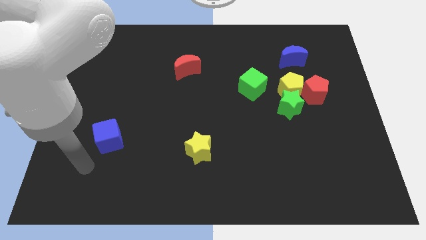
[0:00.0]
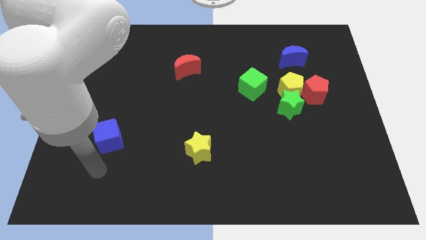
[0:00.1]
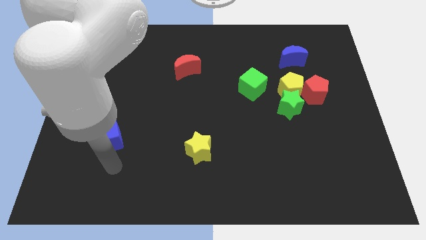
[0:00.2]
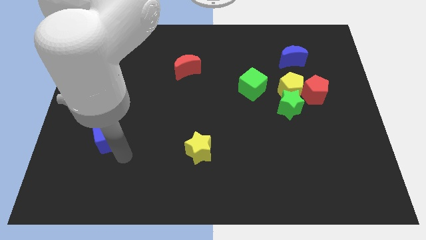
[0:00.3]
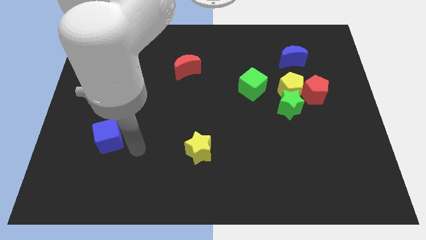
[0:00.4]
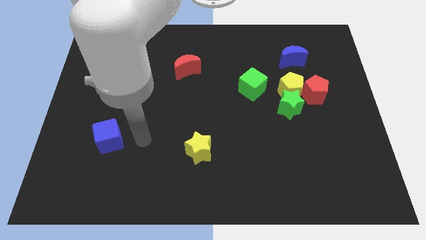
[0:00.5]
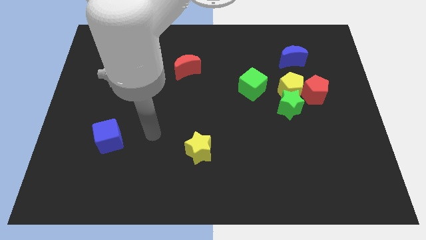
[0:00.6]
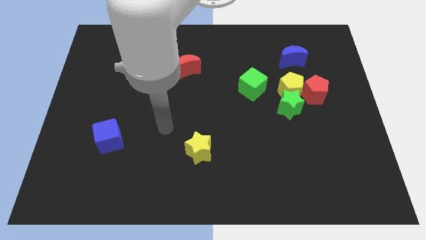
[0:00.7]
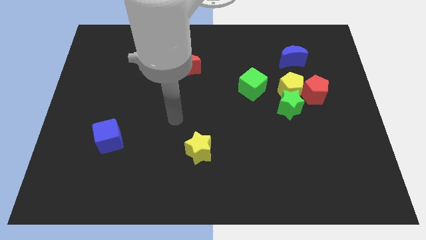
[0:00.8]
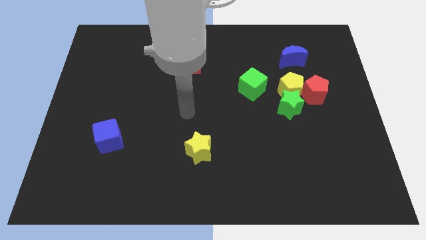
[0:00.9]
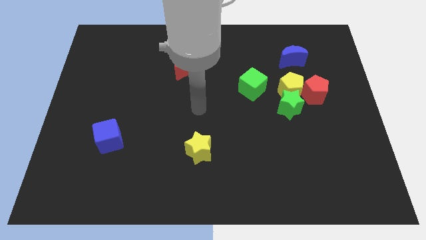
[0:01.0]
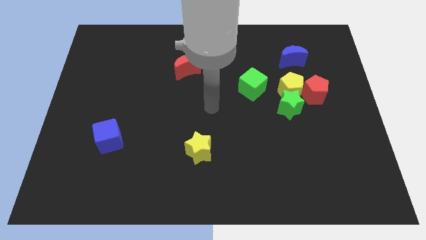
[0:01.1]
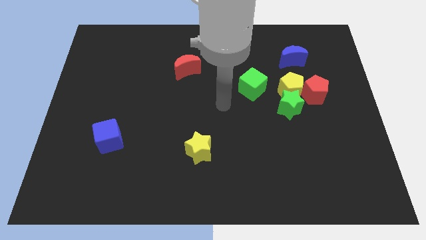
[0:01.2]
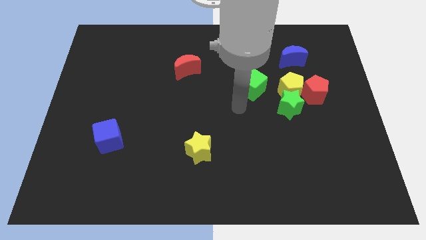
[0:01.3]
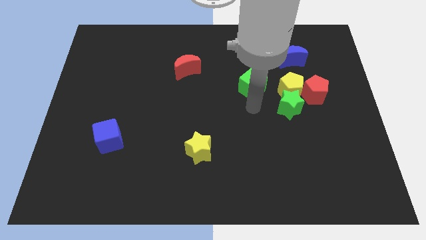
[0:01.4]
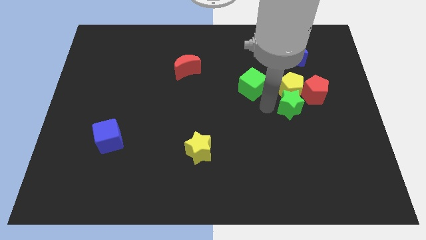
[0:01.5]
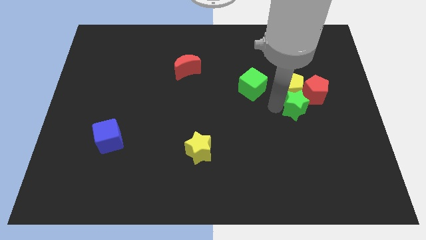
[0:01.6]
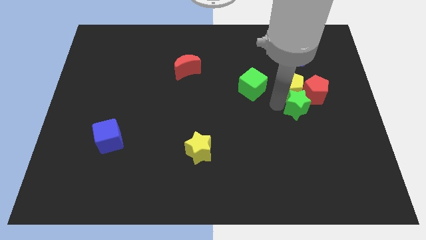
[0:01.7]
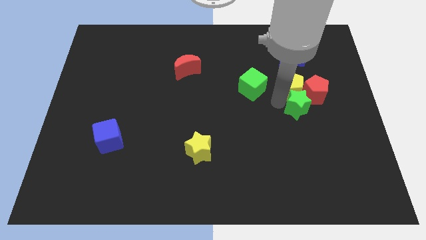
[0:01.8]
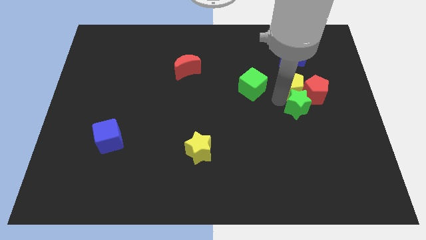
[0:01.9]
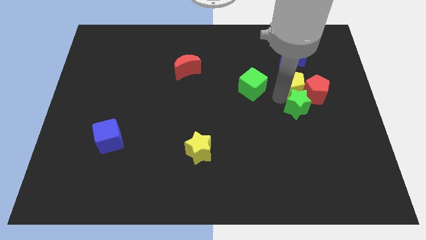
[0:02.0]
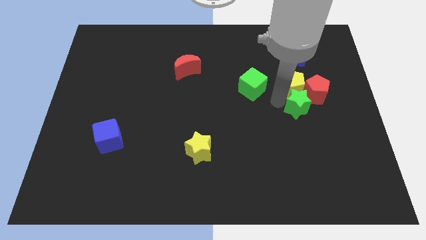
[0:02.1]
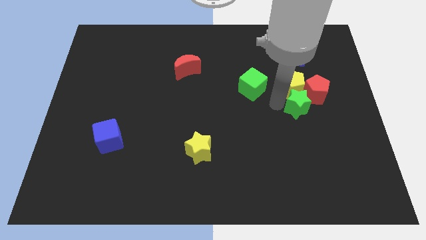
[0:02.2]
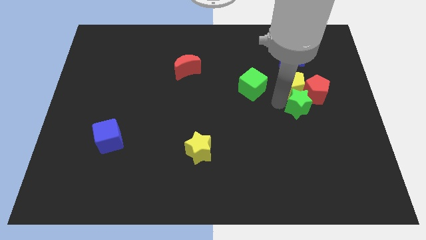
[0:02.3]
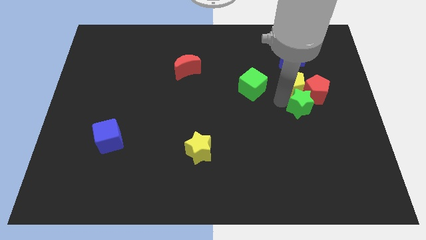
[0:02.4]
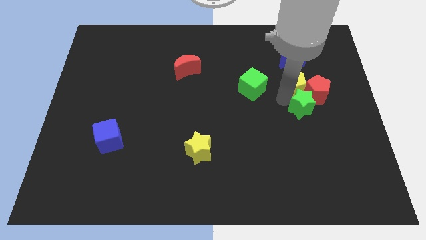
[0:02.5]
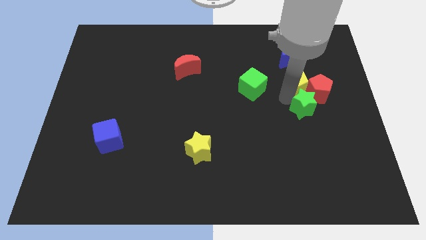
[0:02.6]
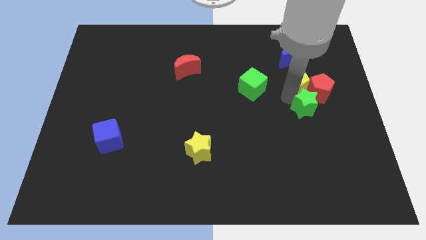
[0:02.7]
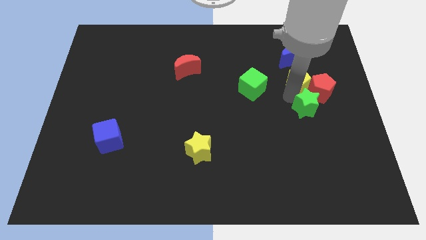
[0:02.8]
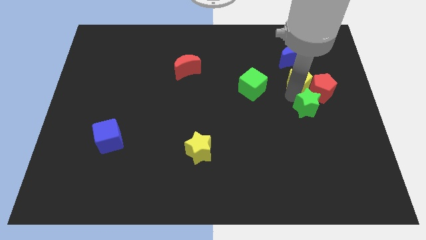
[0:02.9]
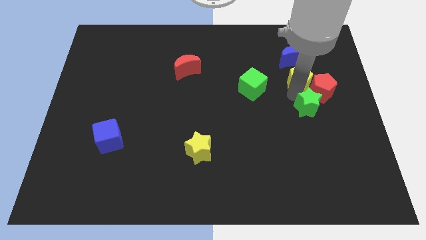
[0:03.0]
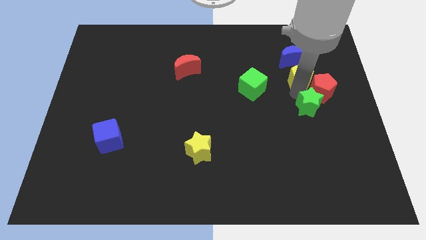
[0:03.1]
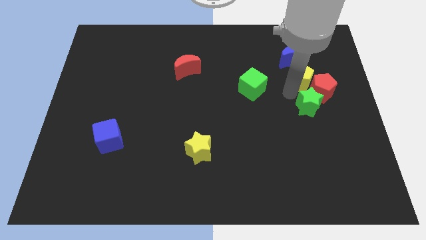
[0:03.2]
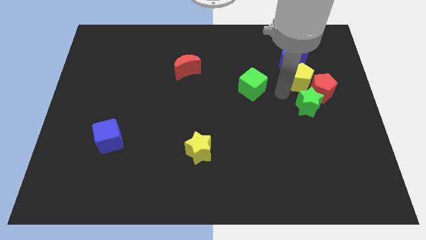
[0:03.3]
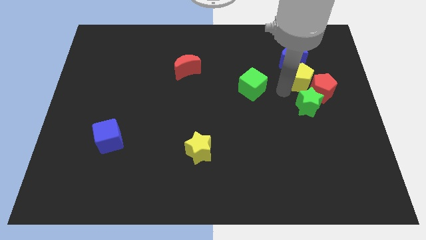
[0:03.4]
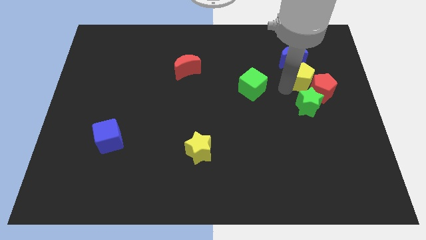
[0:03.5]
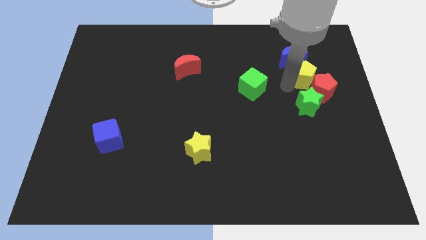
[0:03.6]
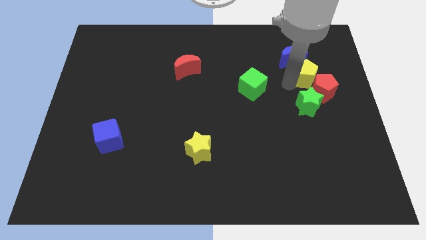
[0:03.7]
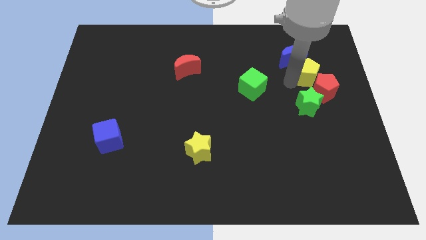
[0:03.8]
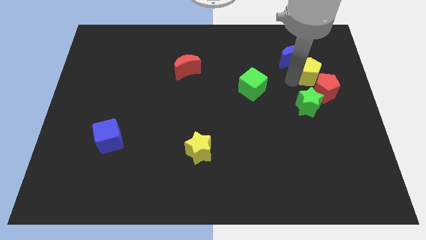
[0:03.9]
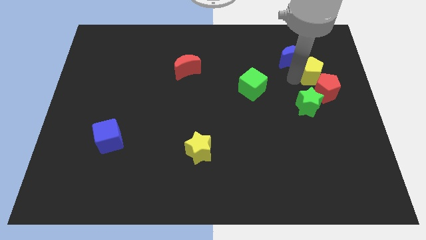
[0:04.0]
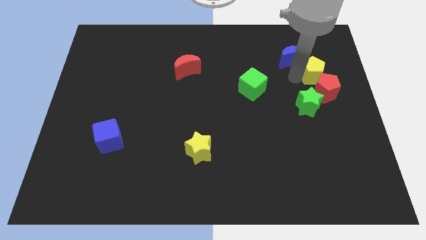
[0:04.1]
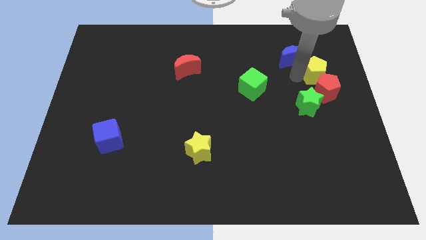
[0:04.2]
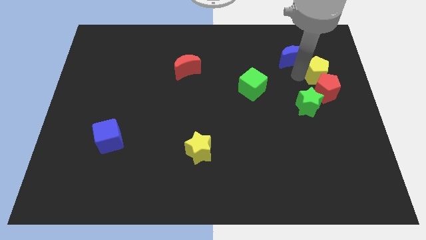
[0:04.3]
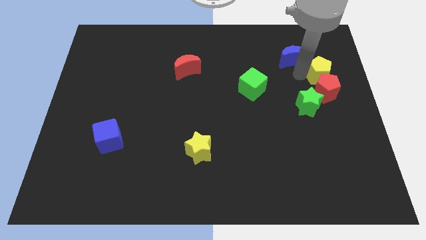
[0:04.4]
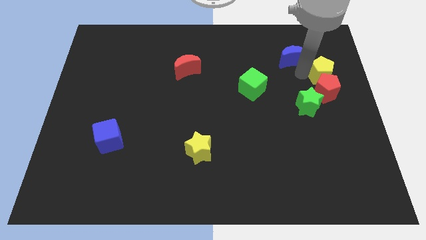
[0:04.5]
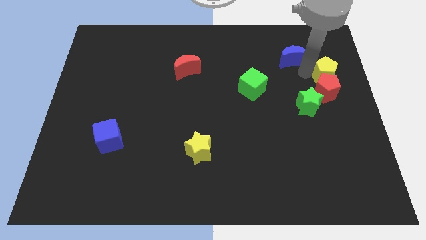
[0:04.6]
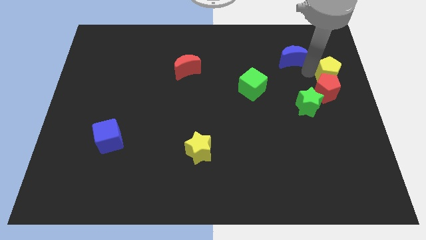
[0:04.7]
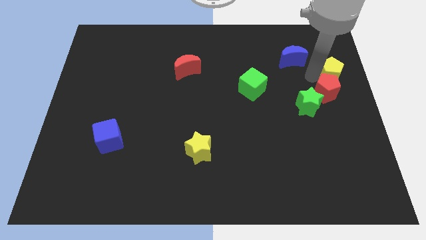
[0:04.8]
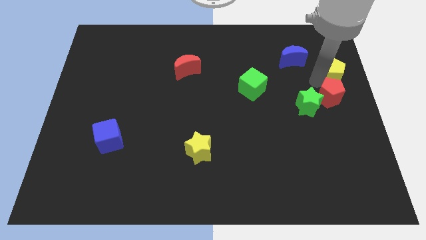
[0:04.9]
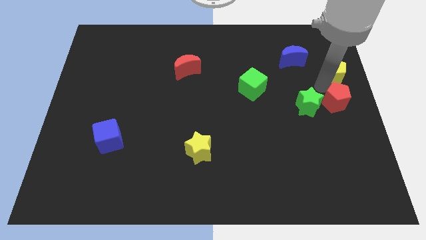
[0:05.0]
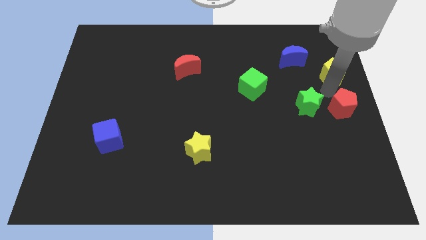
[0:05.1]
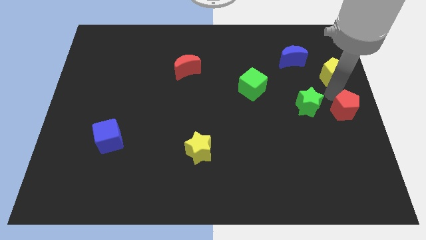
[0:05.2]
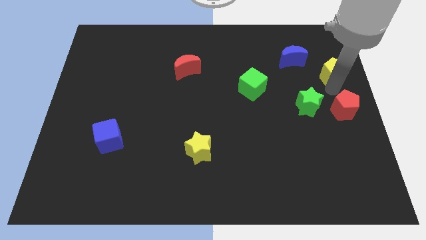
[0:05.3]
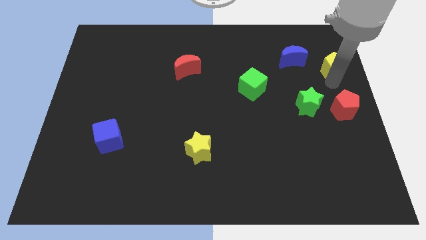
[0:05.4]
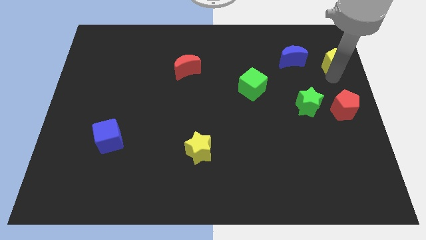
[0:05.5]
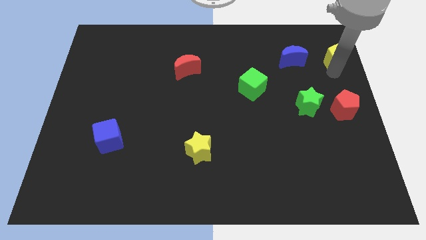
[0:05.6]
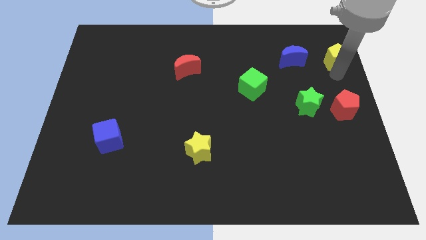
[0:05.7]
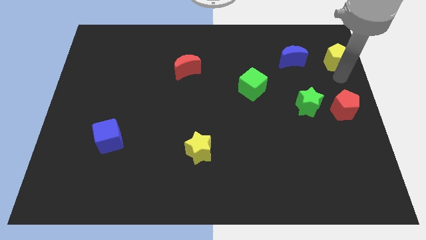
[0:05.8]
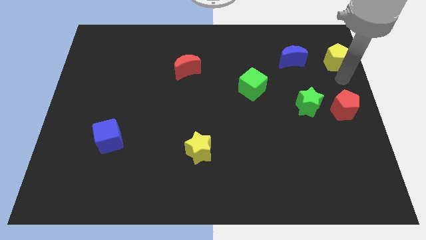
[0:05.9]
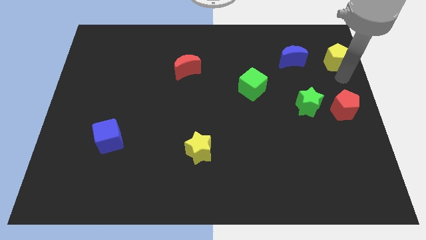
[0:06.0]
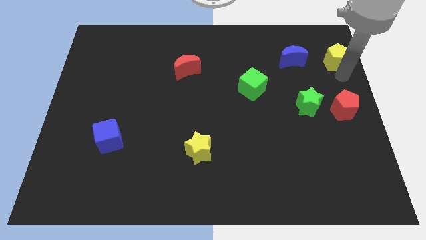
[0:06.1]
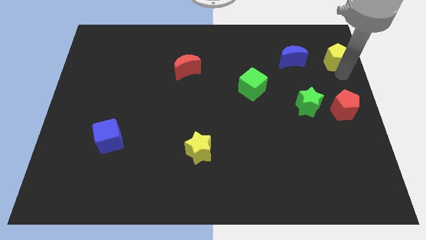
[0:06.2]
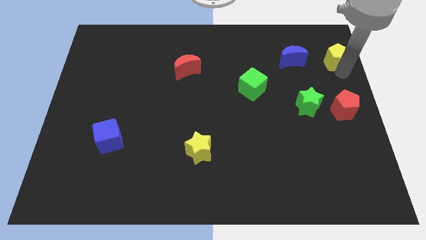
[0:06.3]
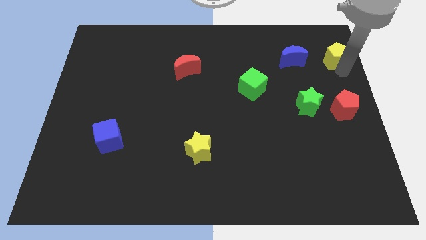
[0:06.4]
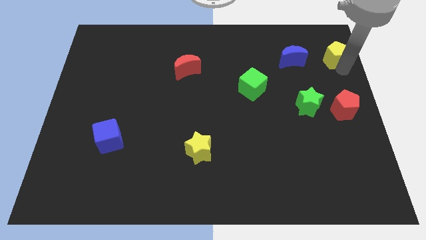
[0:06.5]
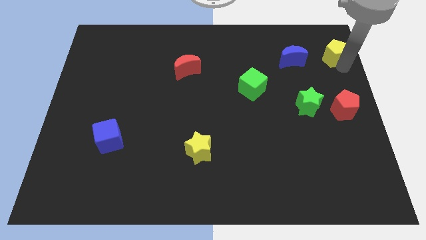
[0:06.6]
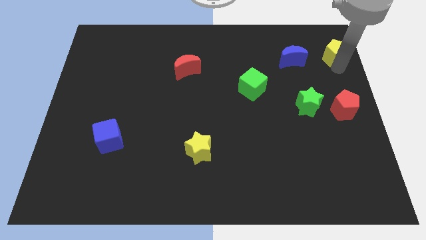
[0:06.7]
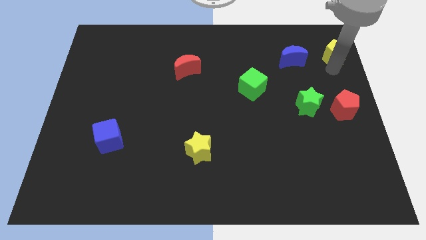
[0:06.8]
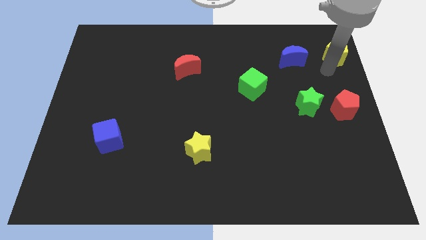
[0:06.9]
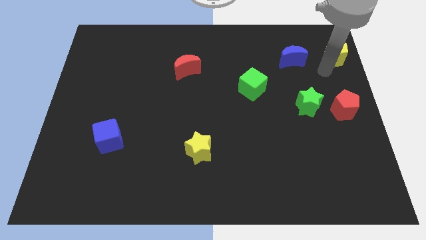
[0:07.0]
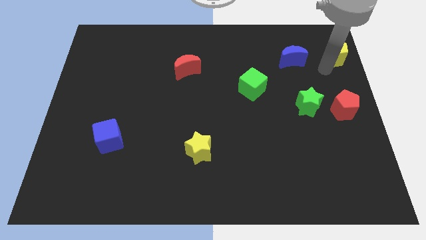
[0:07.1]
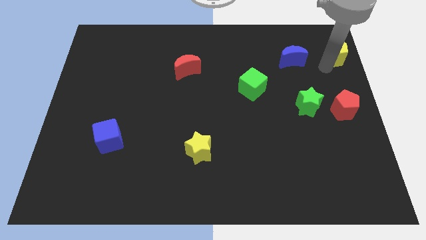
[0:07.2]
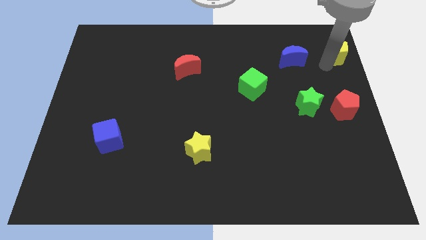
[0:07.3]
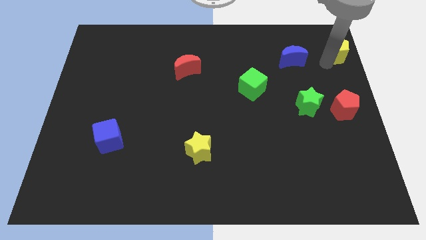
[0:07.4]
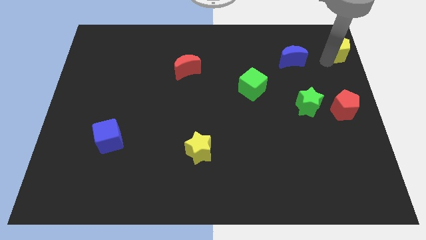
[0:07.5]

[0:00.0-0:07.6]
move the yellow pentagon to the top right

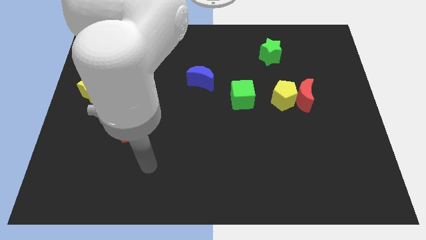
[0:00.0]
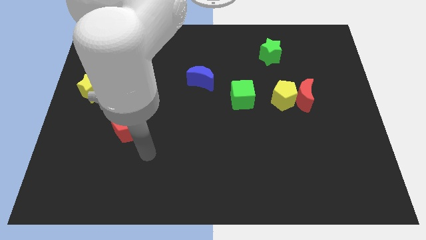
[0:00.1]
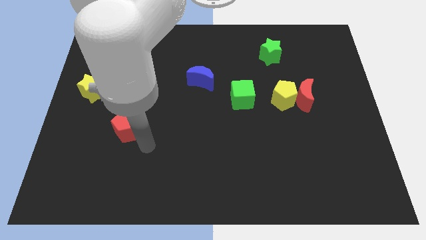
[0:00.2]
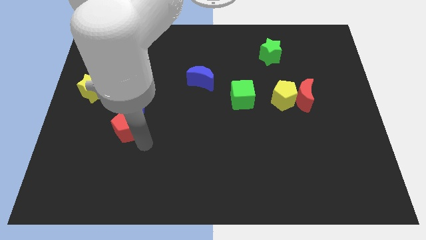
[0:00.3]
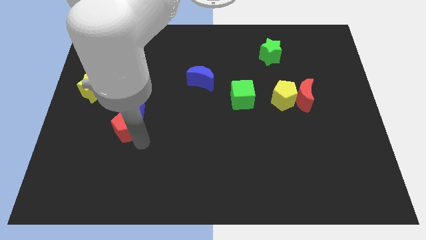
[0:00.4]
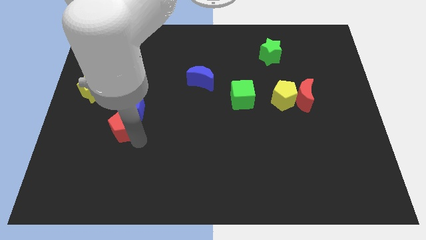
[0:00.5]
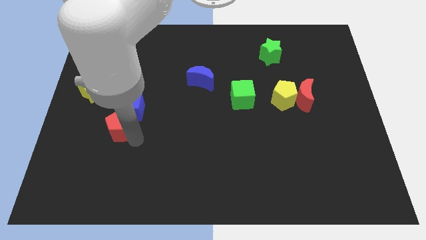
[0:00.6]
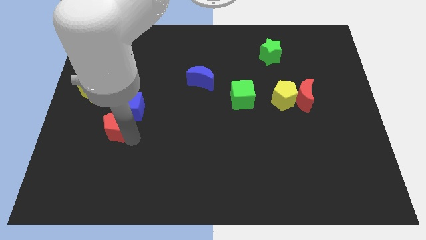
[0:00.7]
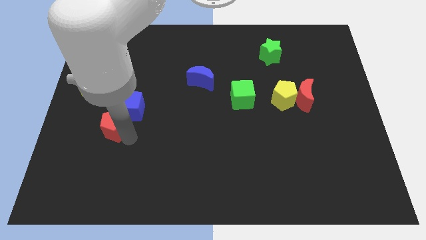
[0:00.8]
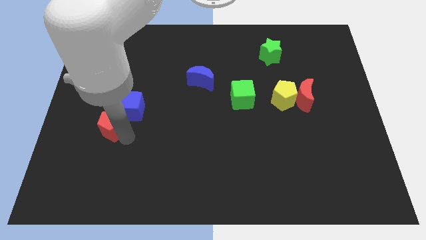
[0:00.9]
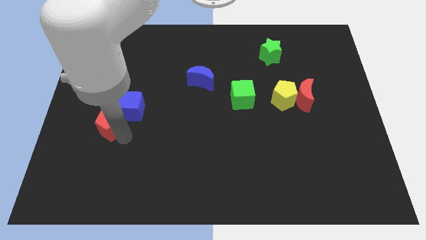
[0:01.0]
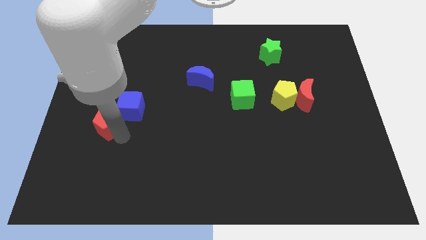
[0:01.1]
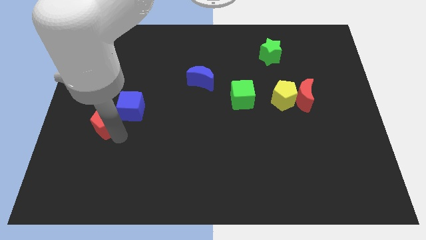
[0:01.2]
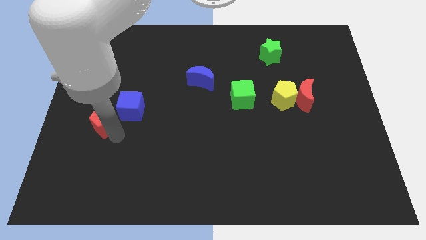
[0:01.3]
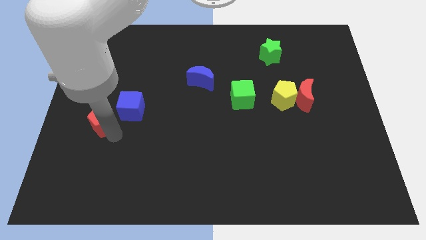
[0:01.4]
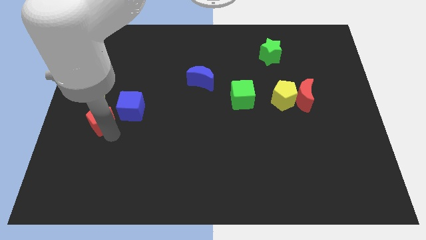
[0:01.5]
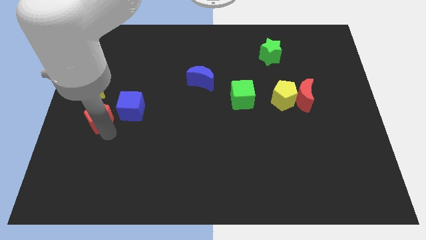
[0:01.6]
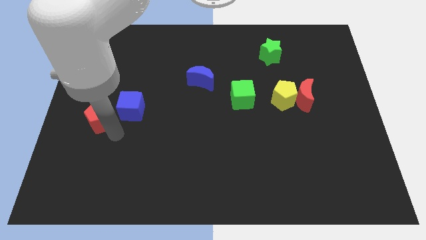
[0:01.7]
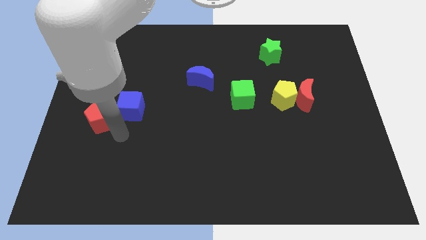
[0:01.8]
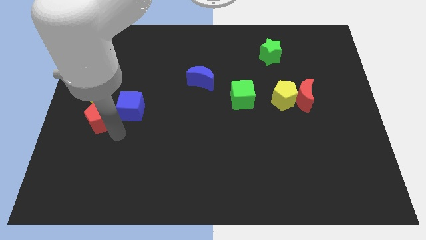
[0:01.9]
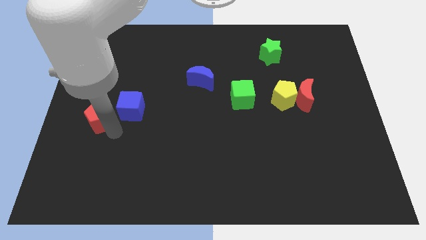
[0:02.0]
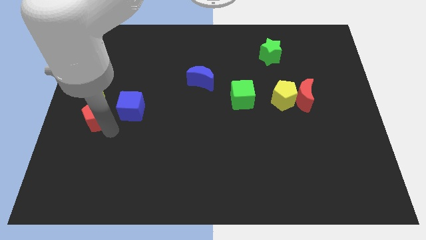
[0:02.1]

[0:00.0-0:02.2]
push the red pentagon to the center left
